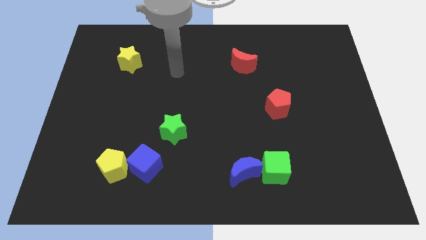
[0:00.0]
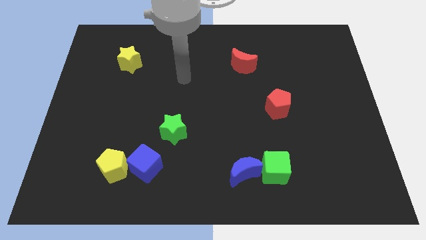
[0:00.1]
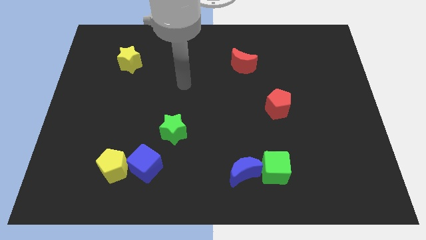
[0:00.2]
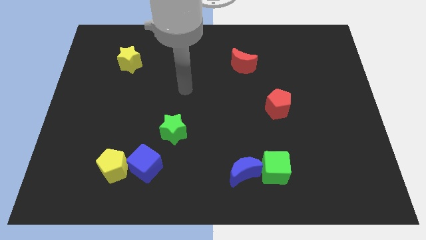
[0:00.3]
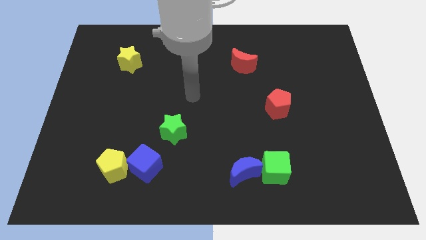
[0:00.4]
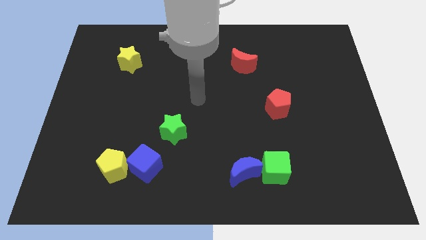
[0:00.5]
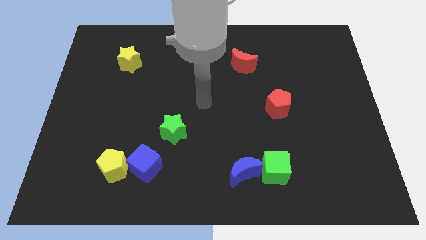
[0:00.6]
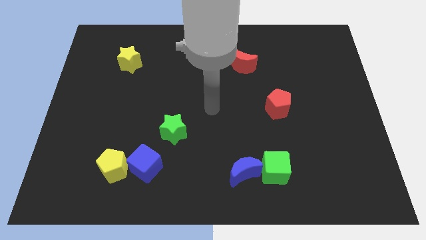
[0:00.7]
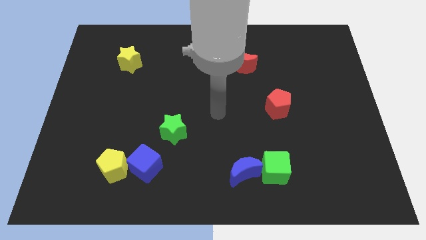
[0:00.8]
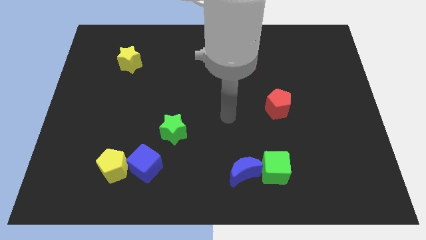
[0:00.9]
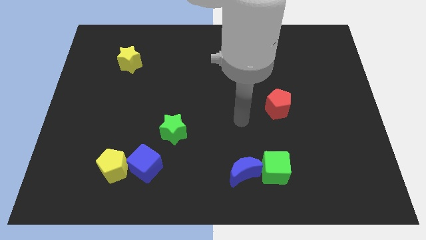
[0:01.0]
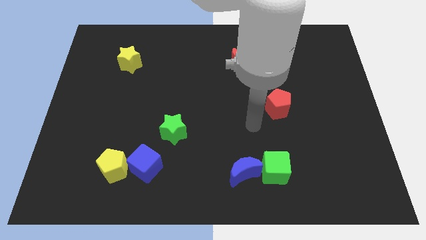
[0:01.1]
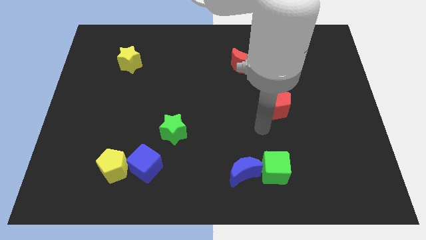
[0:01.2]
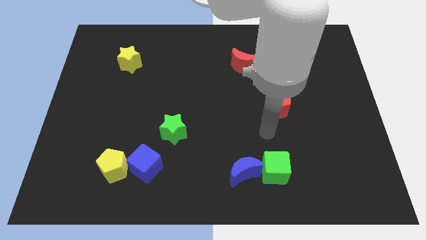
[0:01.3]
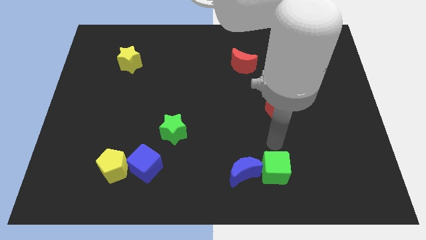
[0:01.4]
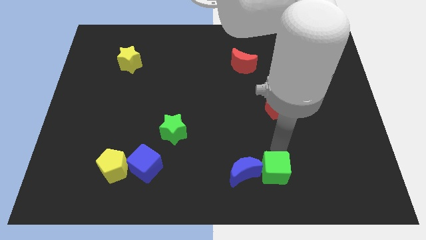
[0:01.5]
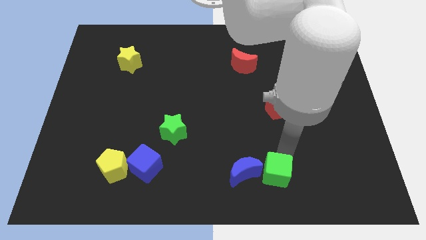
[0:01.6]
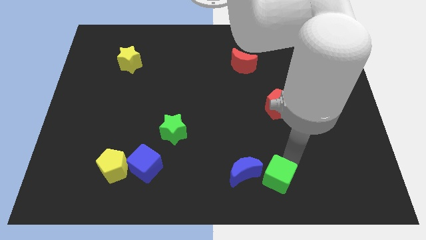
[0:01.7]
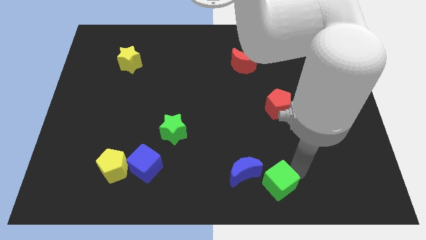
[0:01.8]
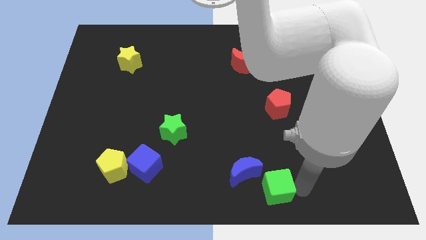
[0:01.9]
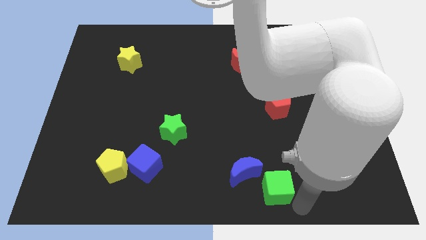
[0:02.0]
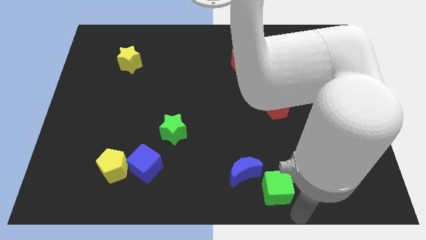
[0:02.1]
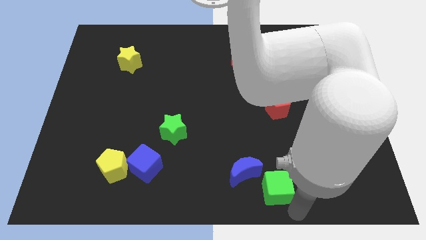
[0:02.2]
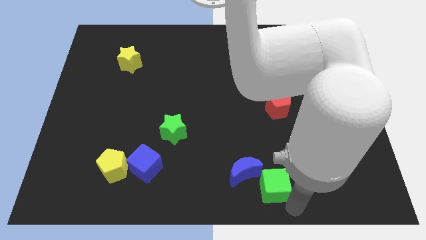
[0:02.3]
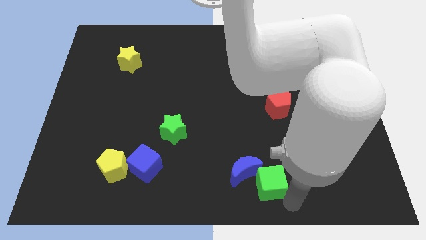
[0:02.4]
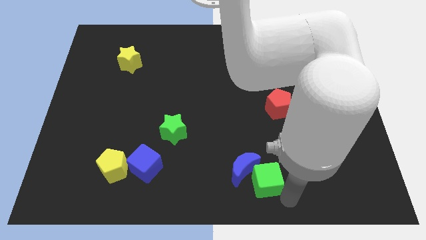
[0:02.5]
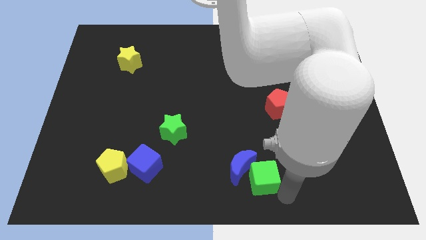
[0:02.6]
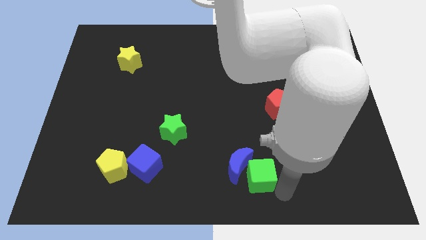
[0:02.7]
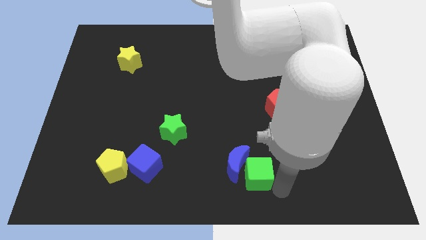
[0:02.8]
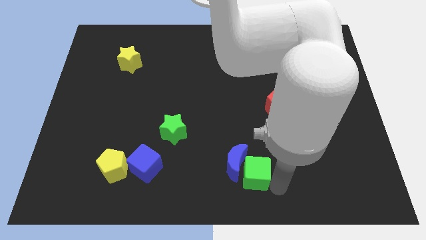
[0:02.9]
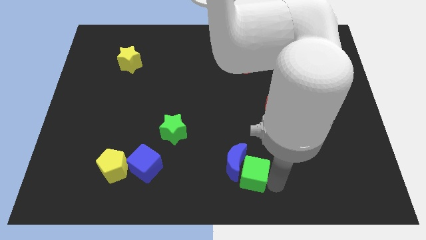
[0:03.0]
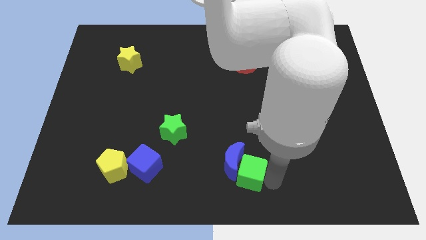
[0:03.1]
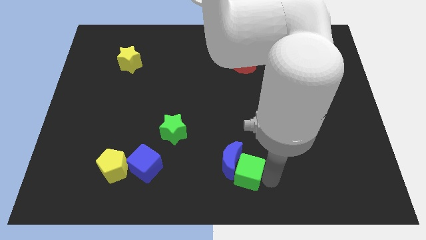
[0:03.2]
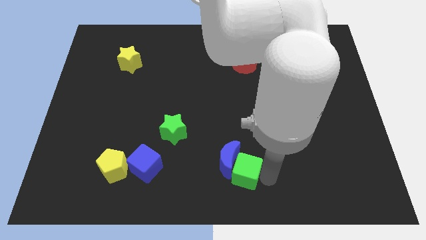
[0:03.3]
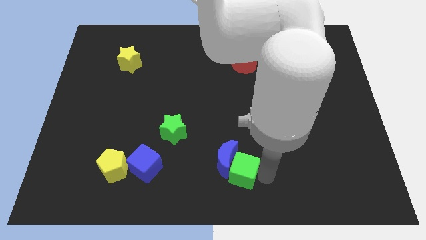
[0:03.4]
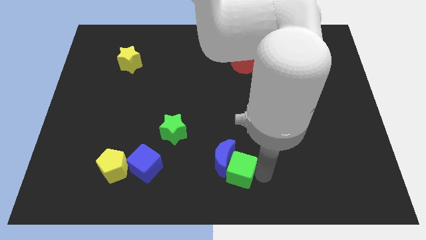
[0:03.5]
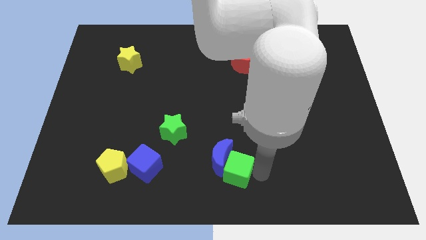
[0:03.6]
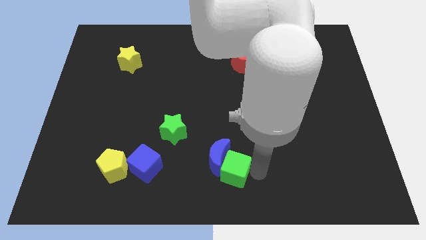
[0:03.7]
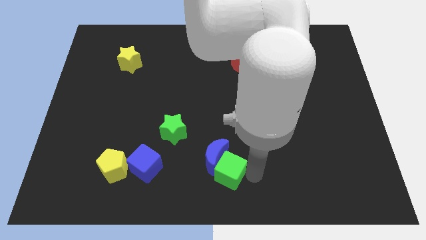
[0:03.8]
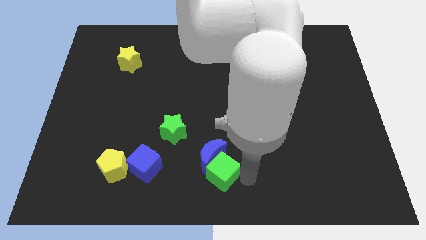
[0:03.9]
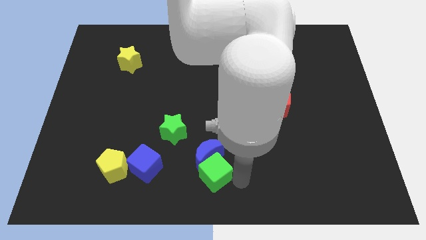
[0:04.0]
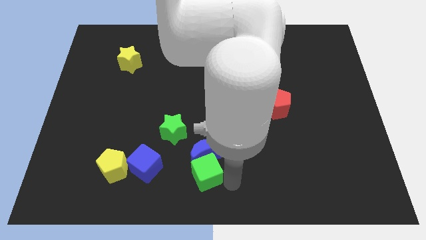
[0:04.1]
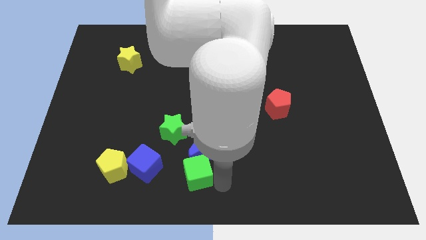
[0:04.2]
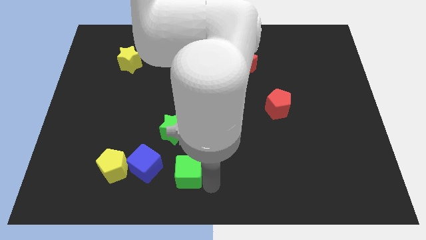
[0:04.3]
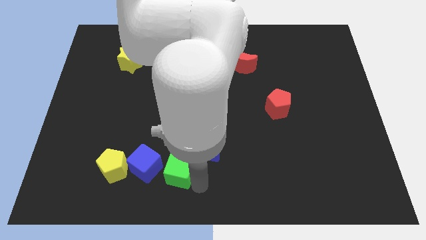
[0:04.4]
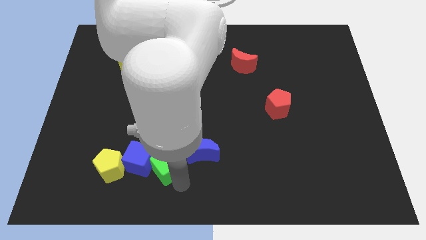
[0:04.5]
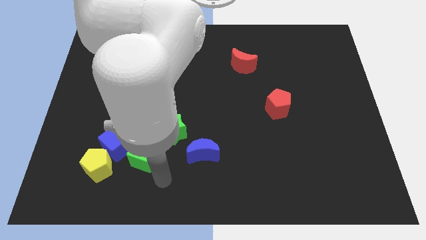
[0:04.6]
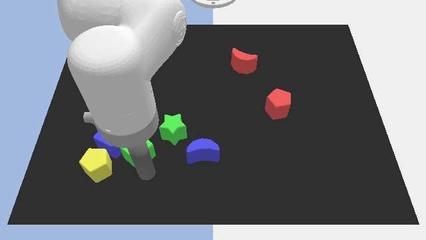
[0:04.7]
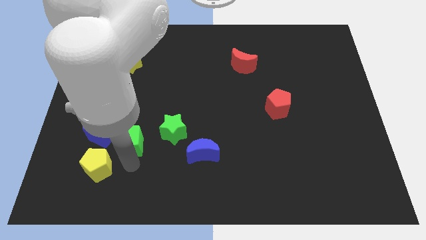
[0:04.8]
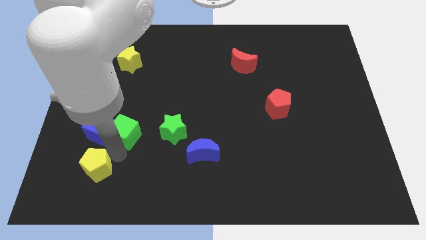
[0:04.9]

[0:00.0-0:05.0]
slide the green cube to the top side of the yellow pentagon

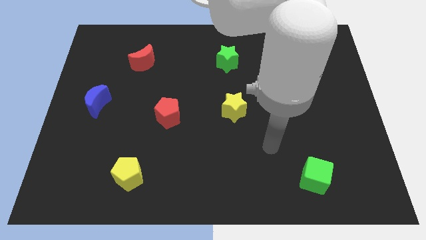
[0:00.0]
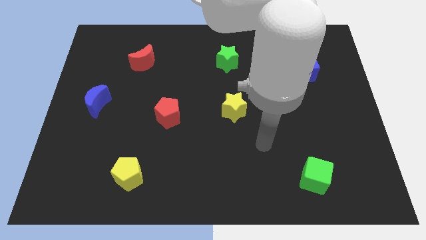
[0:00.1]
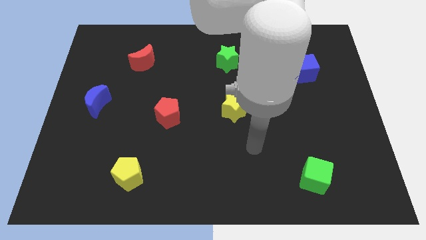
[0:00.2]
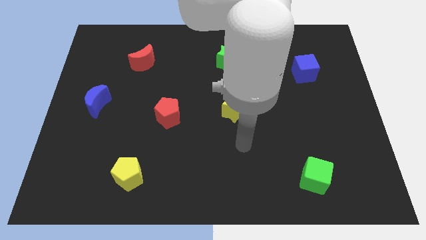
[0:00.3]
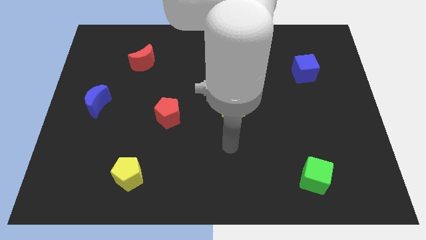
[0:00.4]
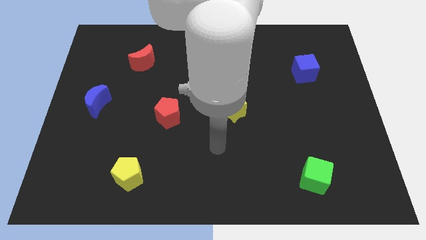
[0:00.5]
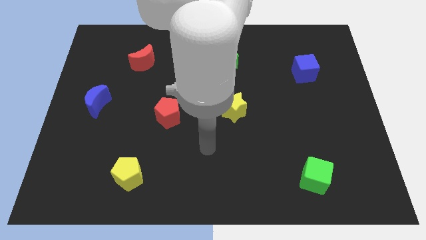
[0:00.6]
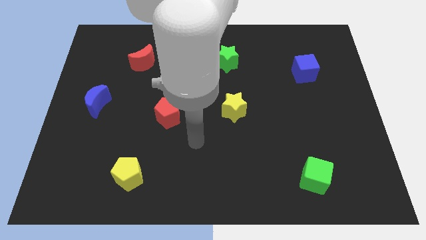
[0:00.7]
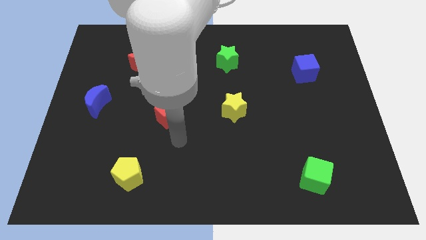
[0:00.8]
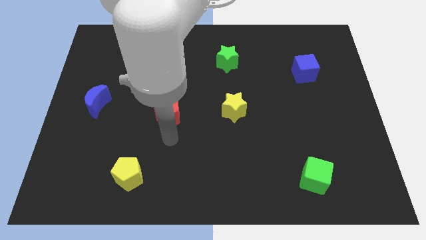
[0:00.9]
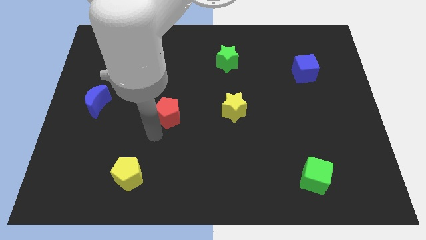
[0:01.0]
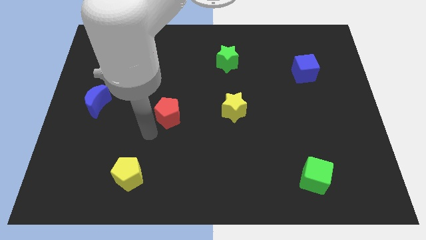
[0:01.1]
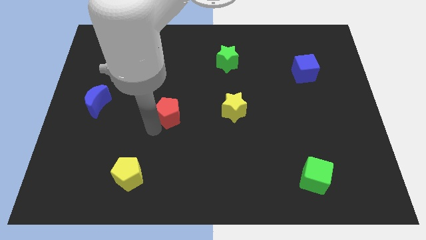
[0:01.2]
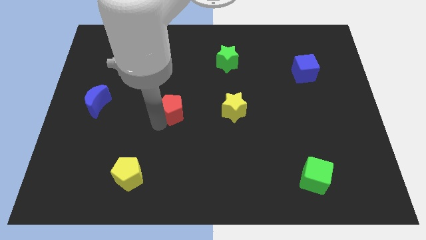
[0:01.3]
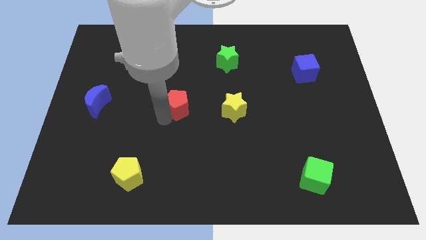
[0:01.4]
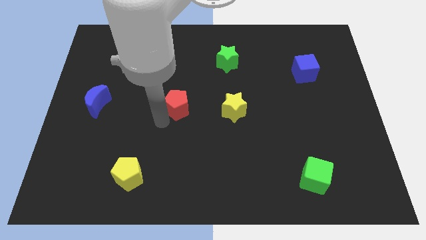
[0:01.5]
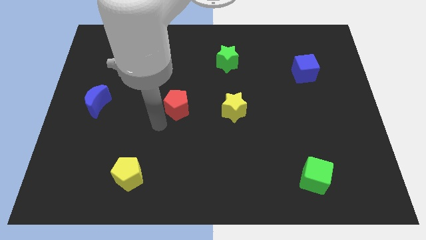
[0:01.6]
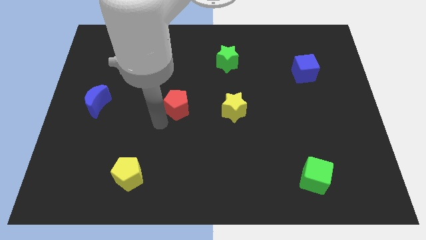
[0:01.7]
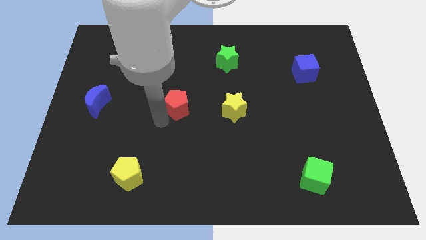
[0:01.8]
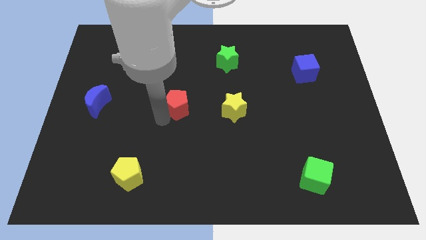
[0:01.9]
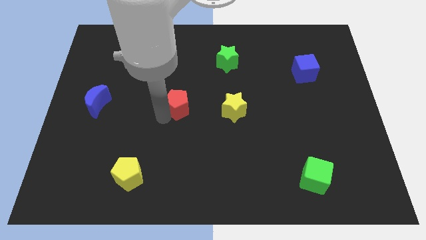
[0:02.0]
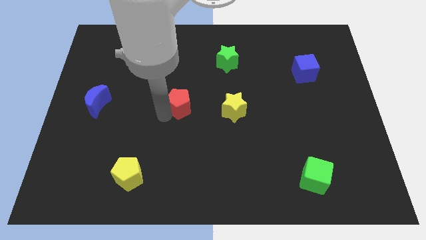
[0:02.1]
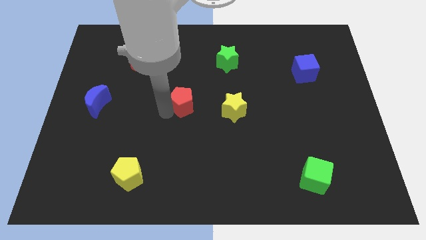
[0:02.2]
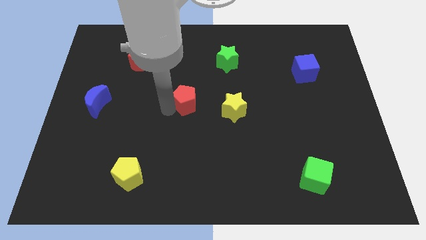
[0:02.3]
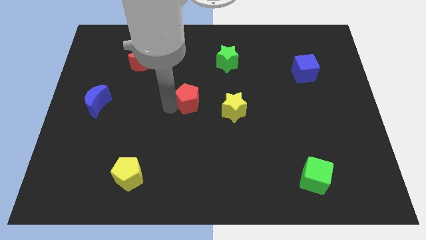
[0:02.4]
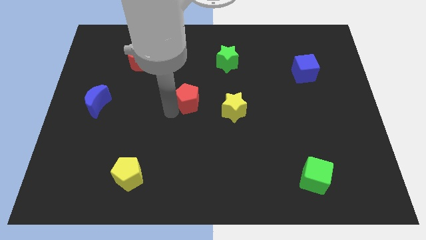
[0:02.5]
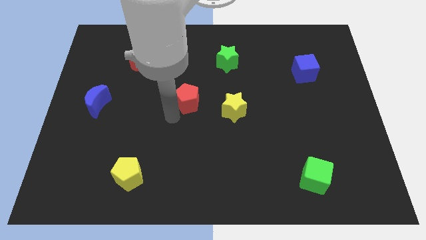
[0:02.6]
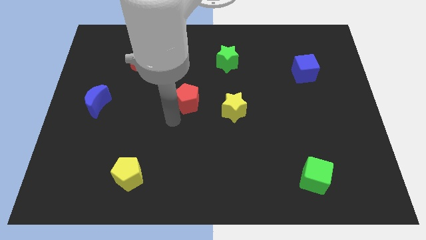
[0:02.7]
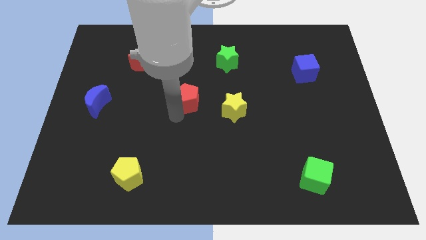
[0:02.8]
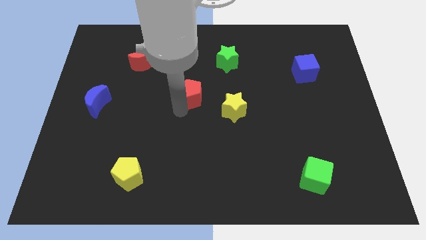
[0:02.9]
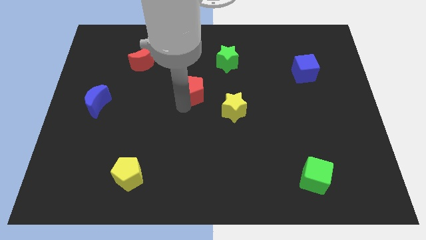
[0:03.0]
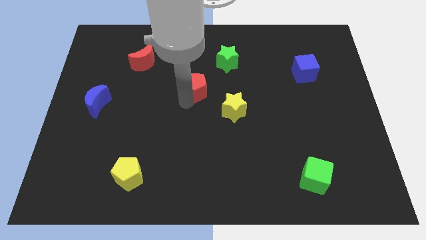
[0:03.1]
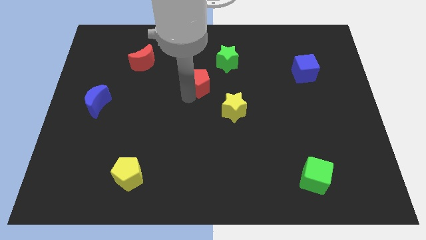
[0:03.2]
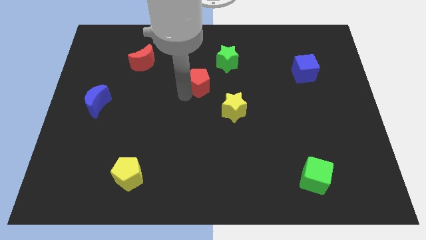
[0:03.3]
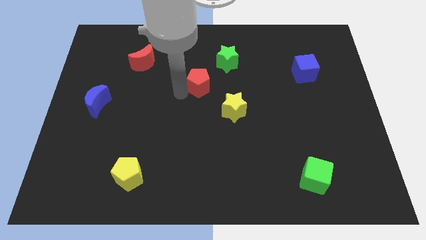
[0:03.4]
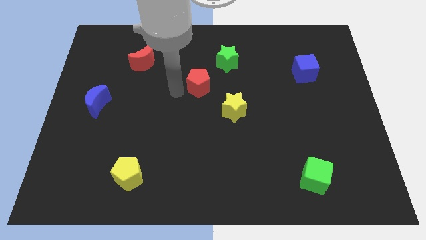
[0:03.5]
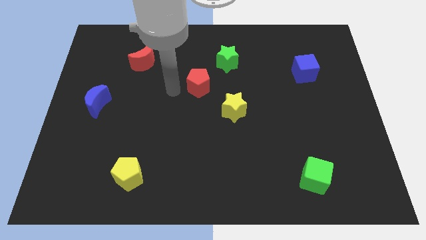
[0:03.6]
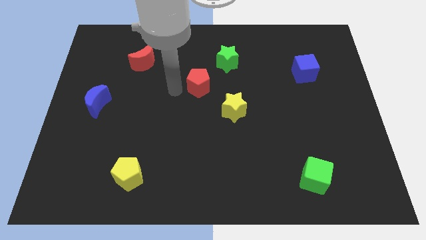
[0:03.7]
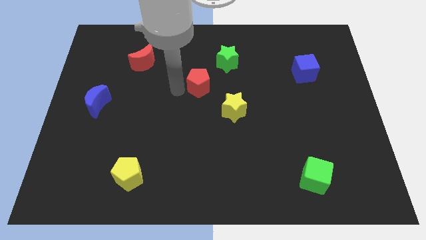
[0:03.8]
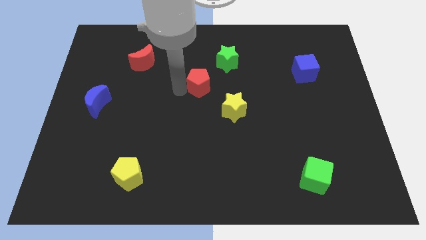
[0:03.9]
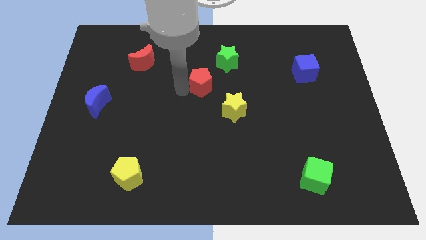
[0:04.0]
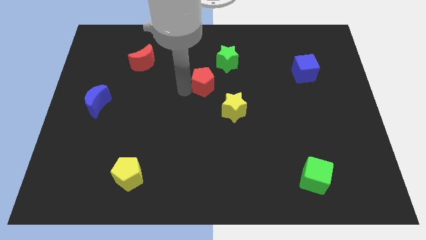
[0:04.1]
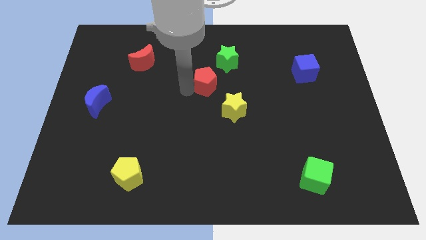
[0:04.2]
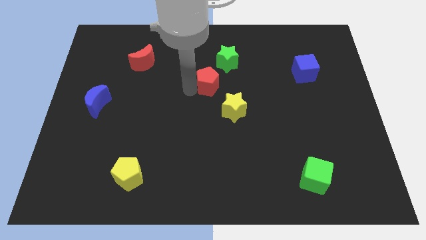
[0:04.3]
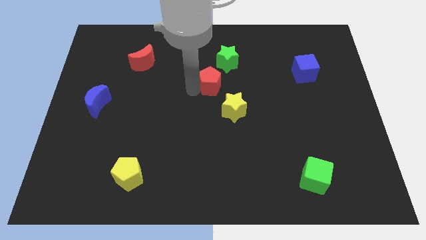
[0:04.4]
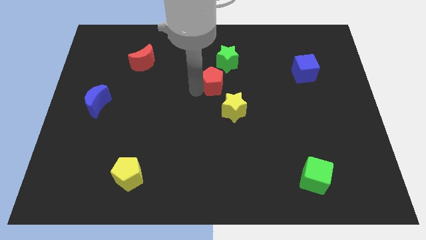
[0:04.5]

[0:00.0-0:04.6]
slide the red pentagon to the top side of the yellow star
